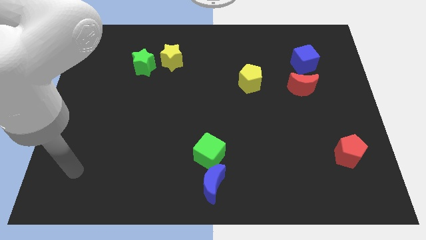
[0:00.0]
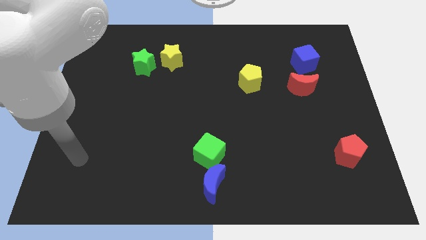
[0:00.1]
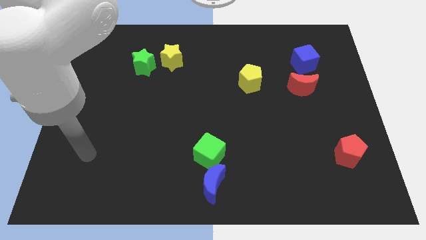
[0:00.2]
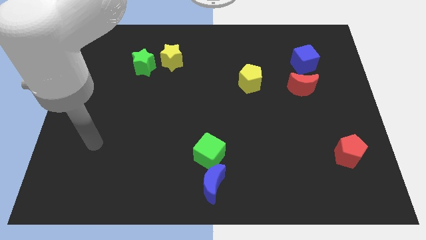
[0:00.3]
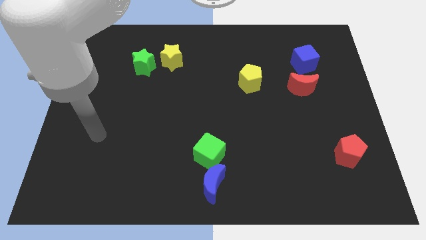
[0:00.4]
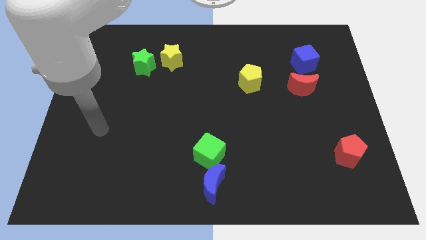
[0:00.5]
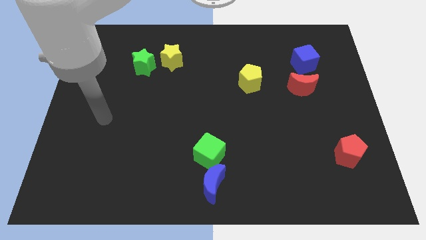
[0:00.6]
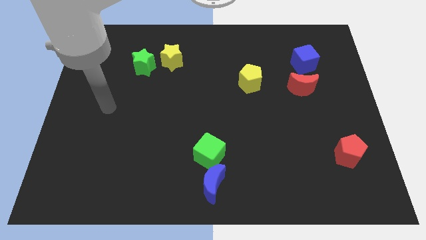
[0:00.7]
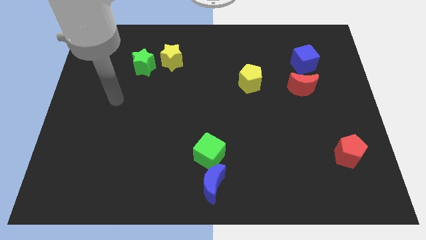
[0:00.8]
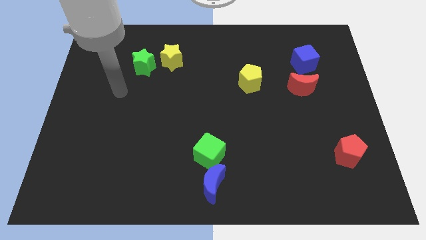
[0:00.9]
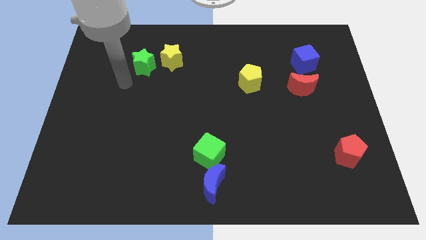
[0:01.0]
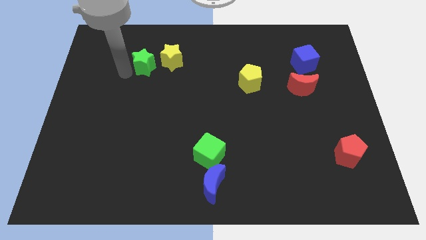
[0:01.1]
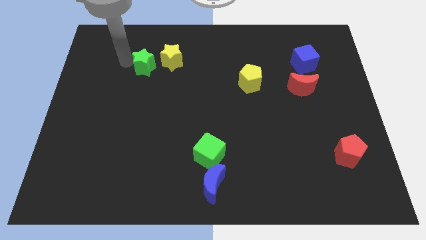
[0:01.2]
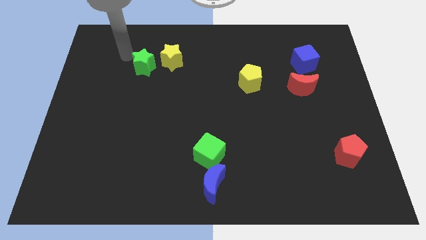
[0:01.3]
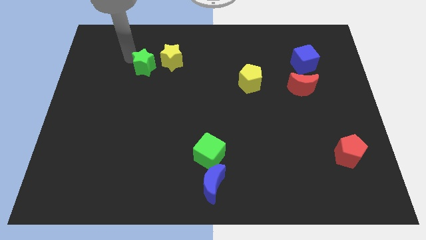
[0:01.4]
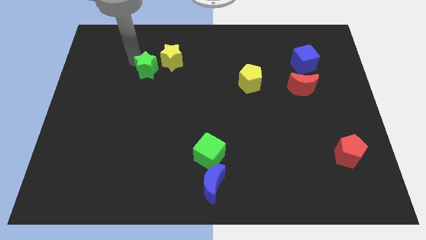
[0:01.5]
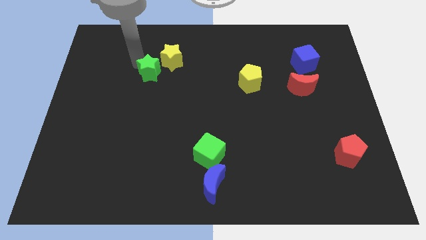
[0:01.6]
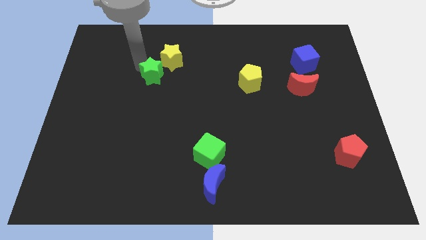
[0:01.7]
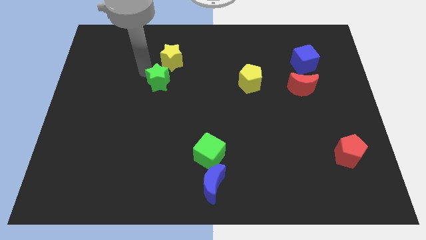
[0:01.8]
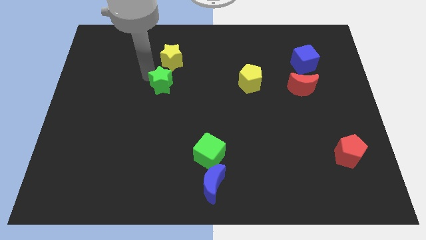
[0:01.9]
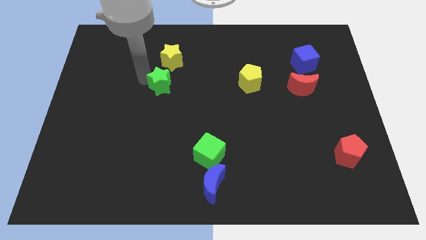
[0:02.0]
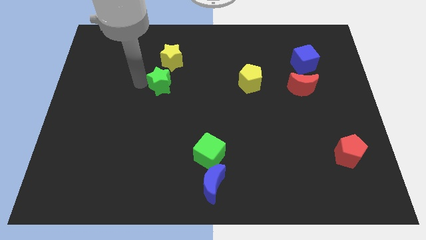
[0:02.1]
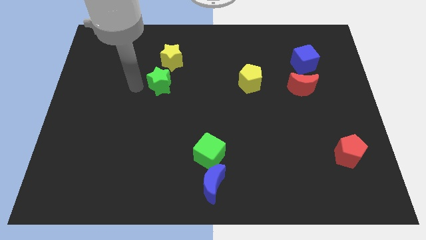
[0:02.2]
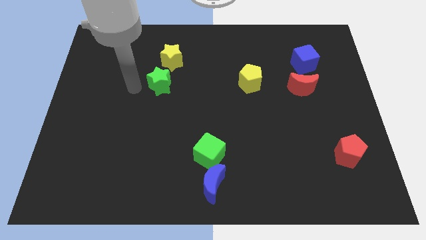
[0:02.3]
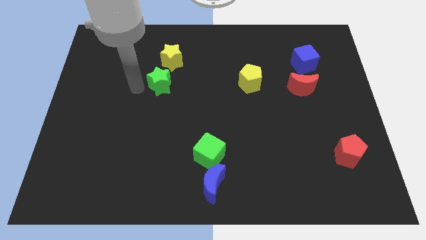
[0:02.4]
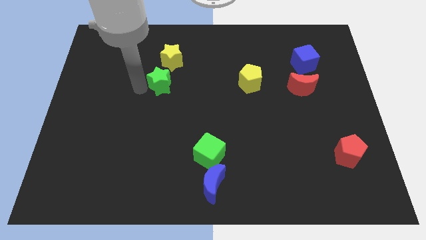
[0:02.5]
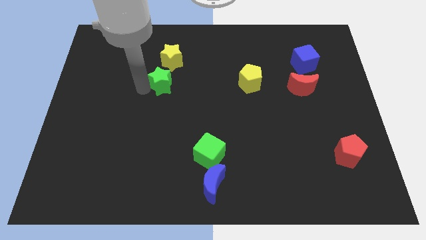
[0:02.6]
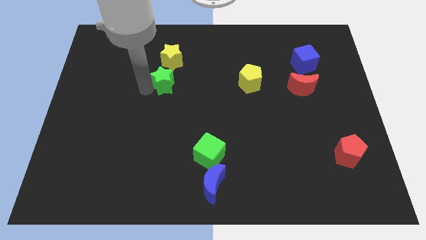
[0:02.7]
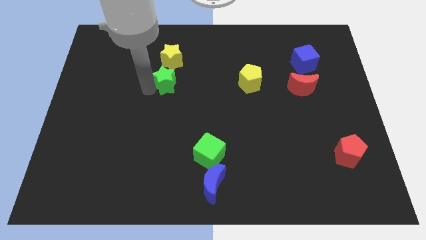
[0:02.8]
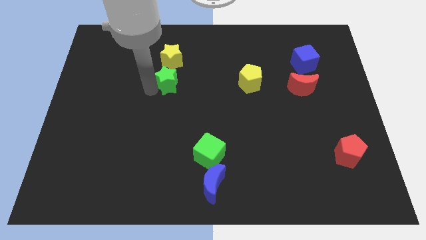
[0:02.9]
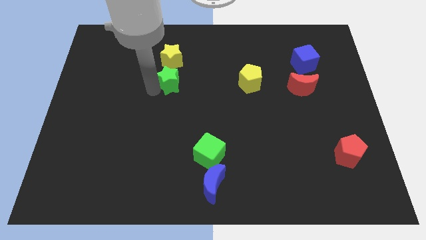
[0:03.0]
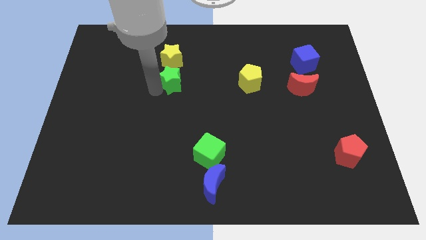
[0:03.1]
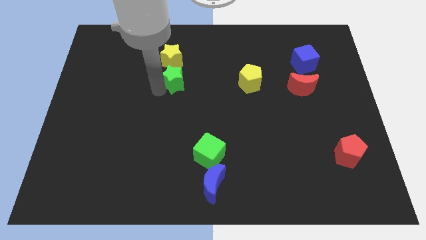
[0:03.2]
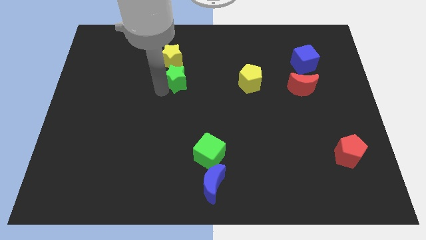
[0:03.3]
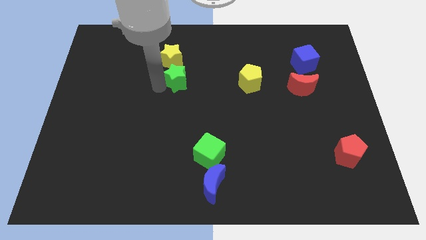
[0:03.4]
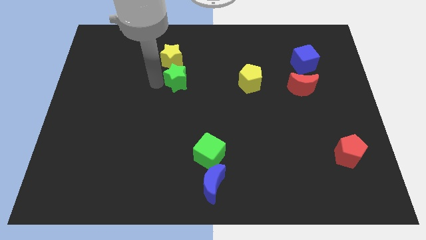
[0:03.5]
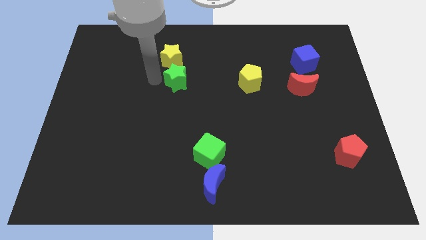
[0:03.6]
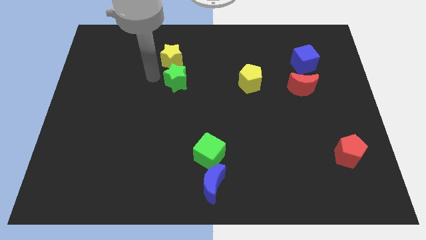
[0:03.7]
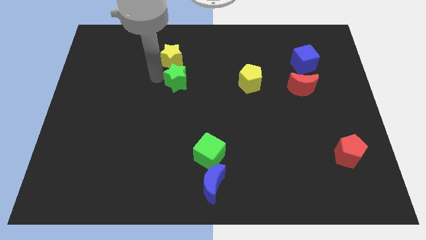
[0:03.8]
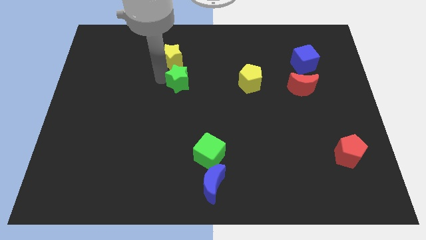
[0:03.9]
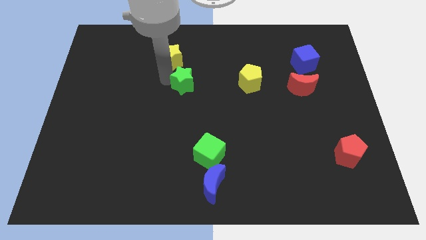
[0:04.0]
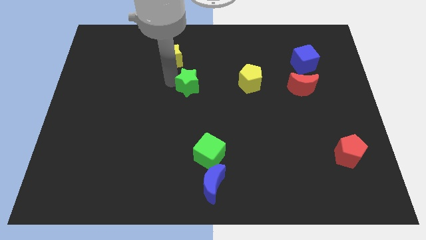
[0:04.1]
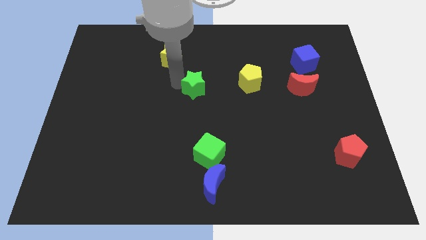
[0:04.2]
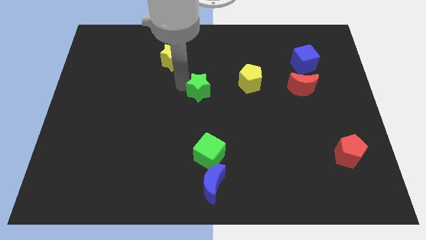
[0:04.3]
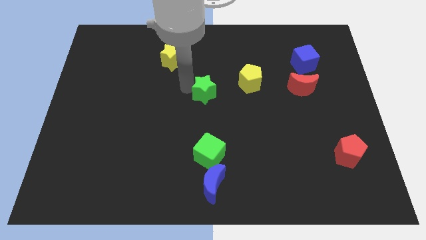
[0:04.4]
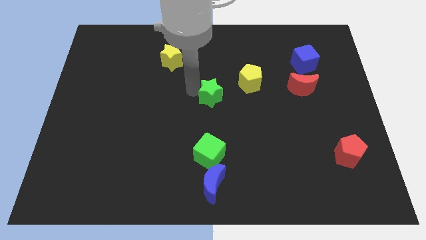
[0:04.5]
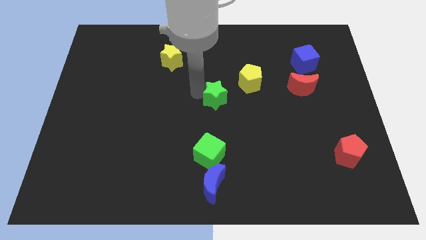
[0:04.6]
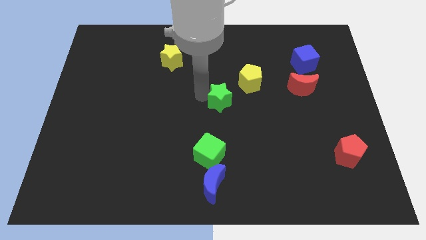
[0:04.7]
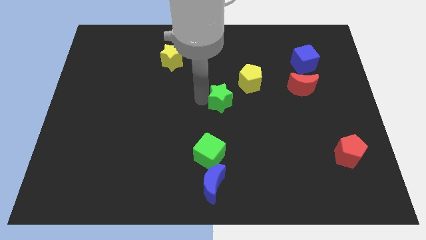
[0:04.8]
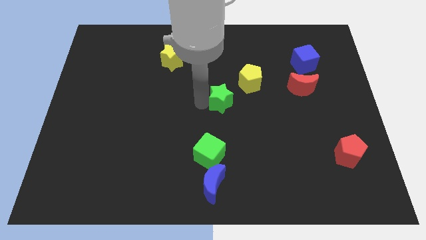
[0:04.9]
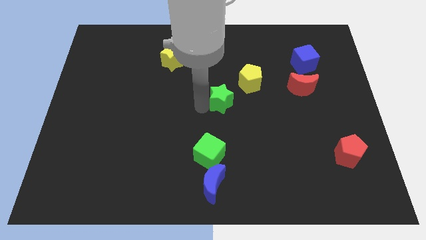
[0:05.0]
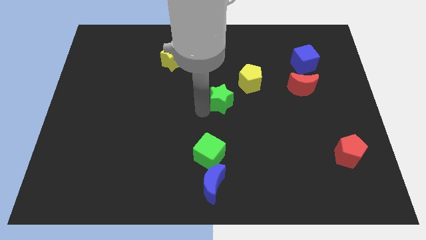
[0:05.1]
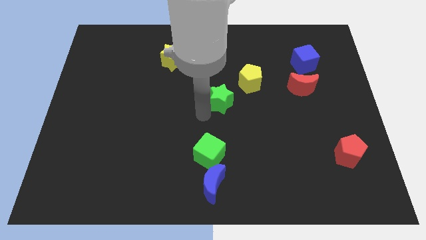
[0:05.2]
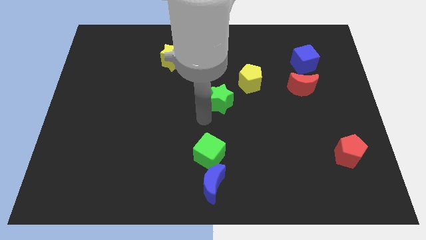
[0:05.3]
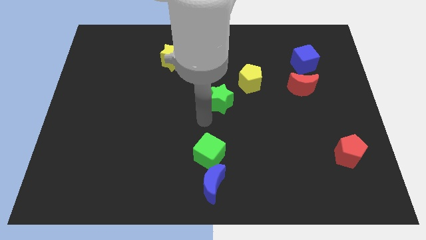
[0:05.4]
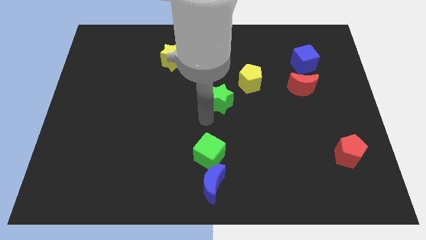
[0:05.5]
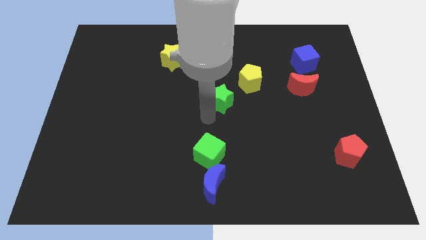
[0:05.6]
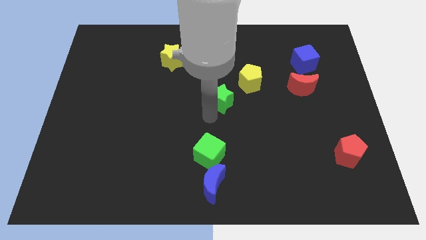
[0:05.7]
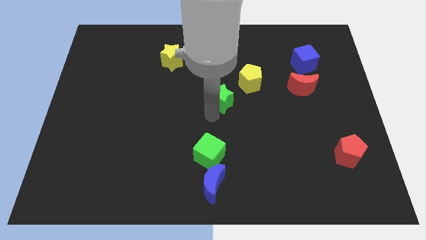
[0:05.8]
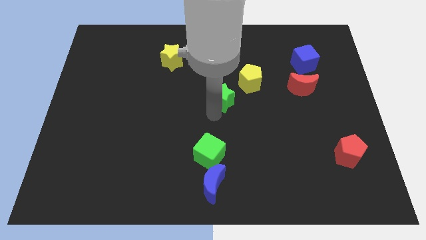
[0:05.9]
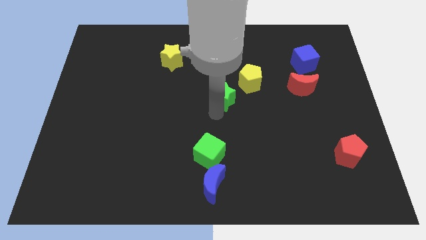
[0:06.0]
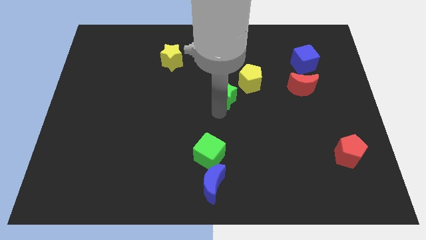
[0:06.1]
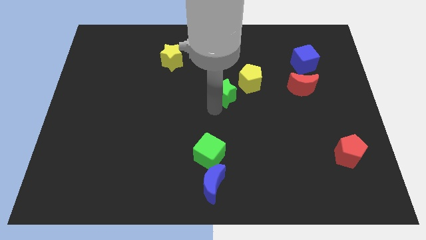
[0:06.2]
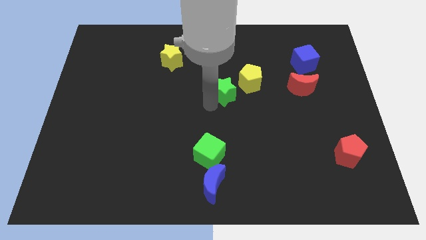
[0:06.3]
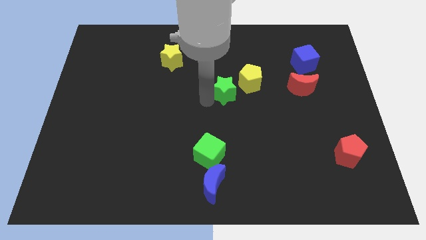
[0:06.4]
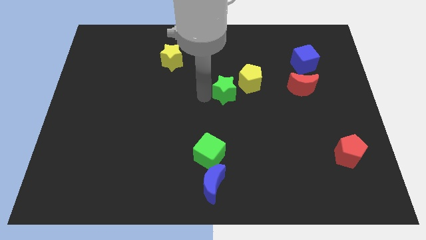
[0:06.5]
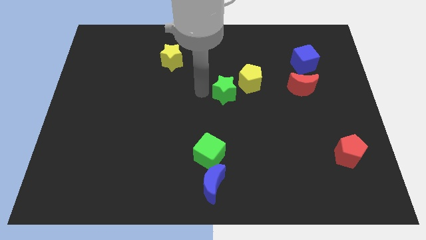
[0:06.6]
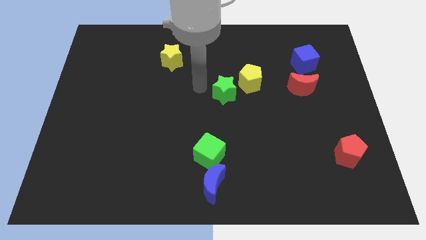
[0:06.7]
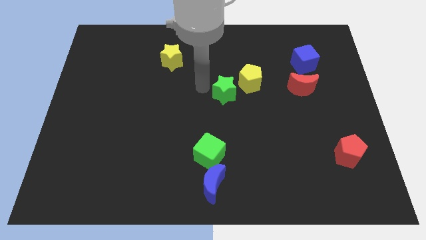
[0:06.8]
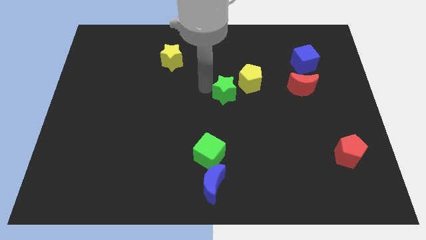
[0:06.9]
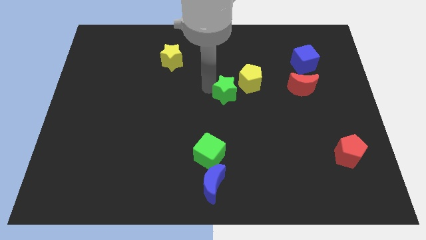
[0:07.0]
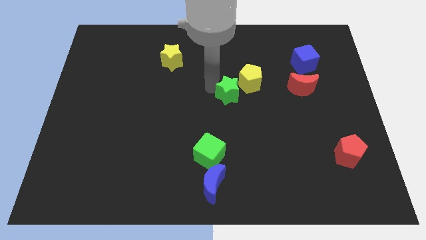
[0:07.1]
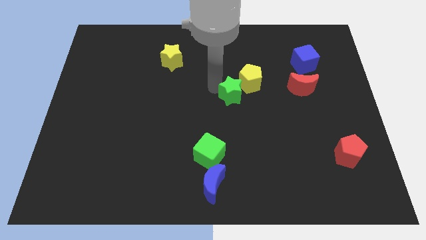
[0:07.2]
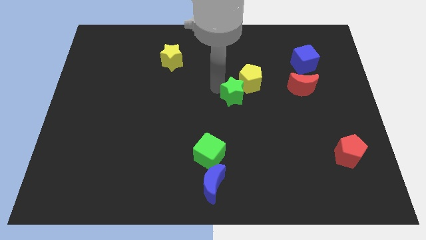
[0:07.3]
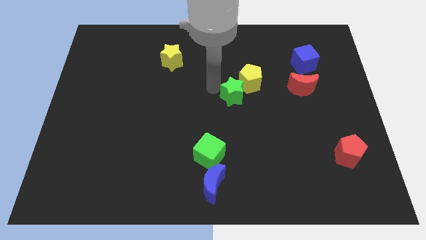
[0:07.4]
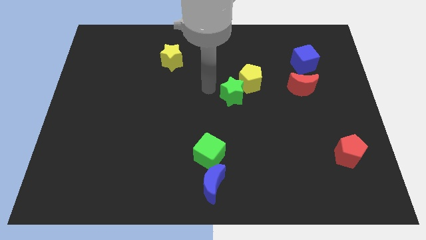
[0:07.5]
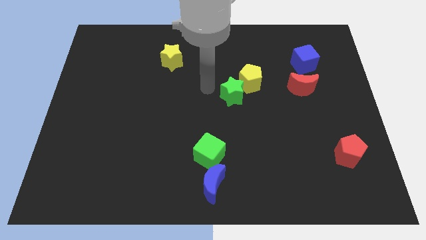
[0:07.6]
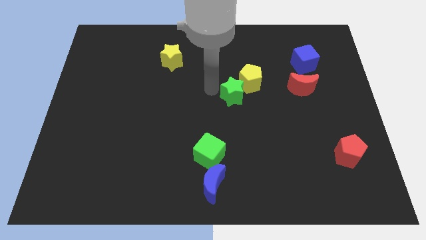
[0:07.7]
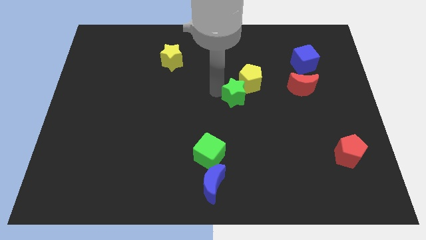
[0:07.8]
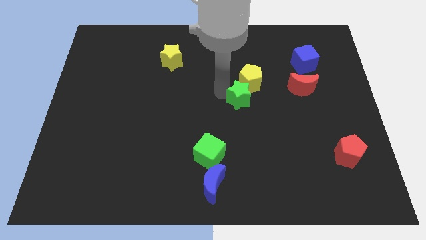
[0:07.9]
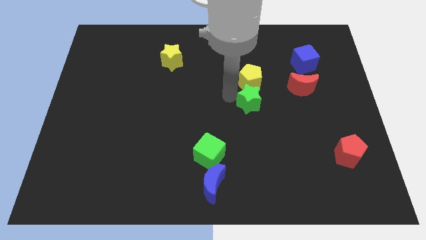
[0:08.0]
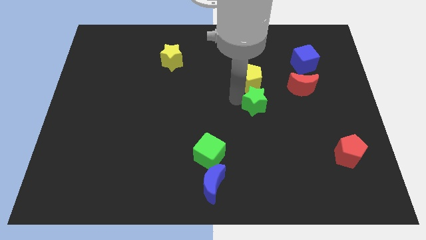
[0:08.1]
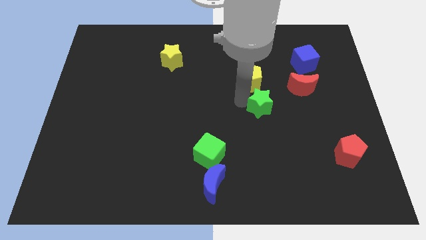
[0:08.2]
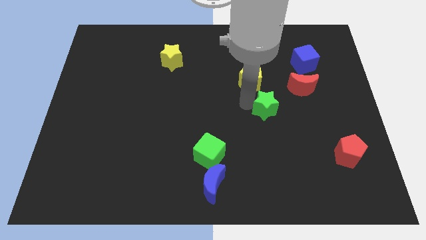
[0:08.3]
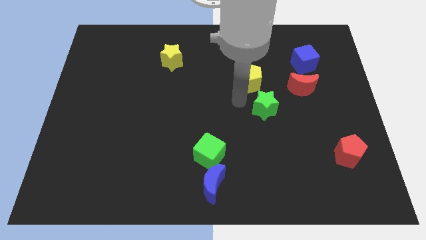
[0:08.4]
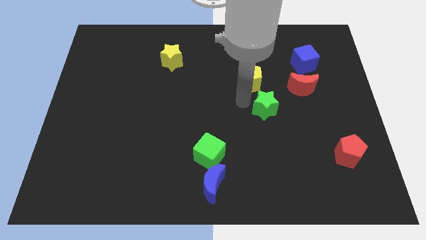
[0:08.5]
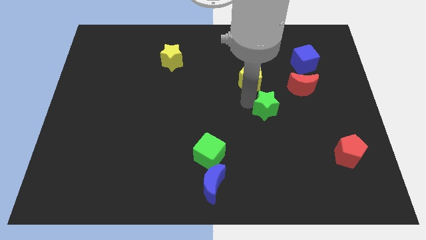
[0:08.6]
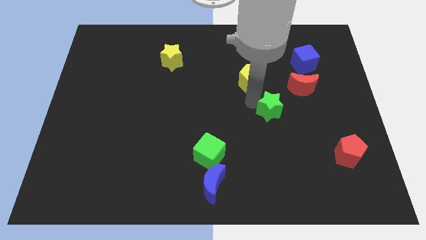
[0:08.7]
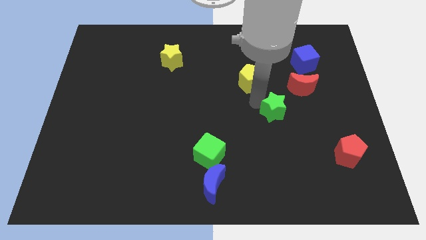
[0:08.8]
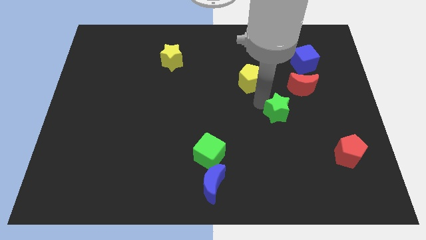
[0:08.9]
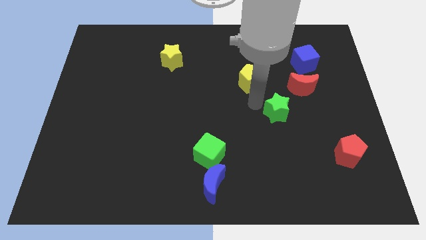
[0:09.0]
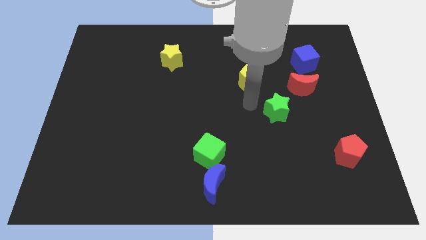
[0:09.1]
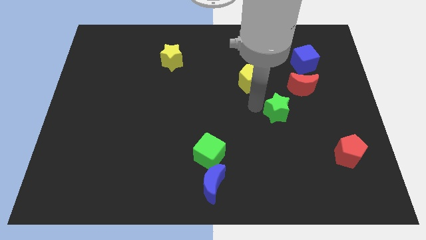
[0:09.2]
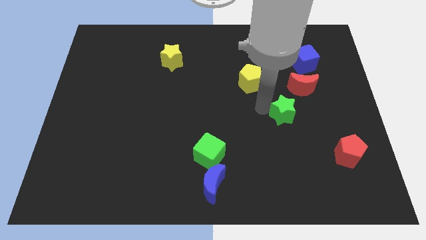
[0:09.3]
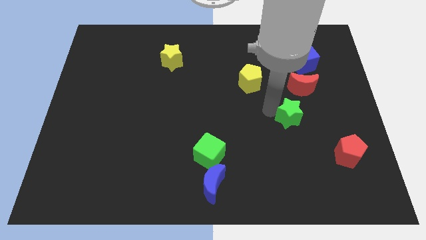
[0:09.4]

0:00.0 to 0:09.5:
push the green star below the red moon
